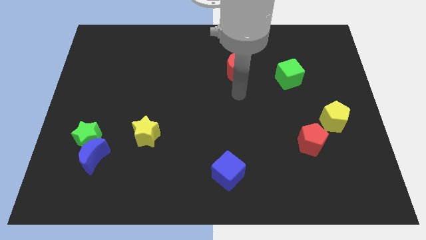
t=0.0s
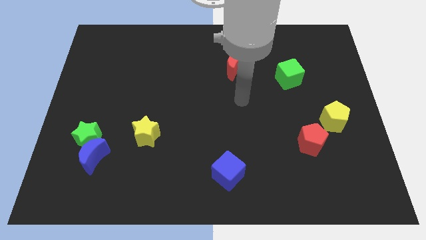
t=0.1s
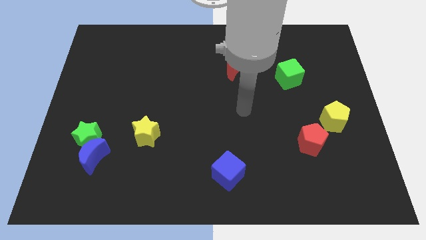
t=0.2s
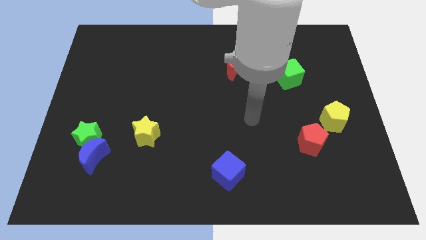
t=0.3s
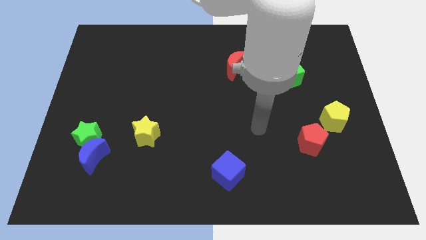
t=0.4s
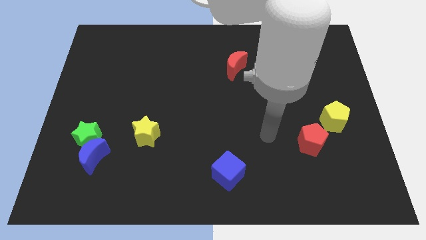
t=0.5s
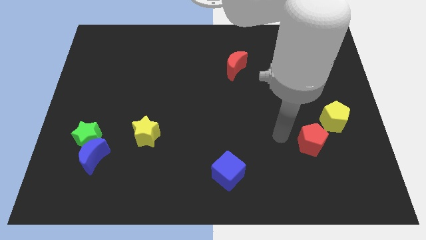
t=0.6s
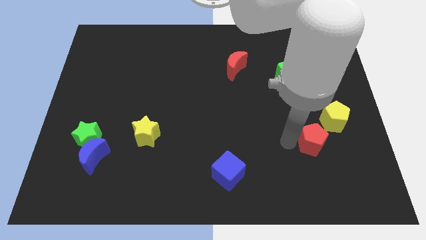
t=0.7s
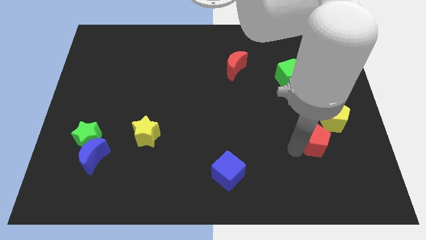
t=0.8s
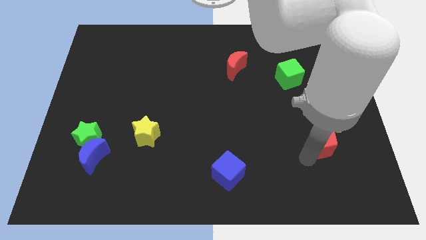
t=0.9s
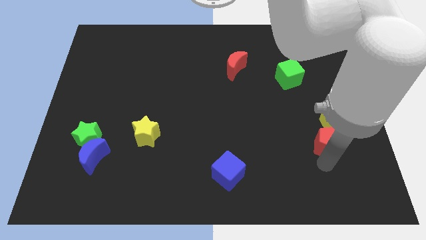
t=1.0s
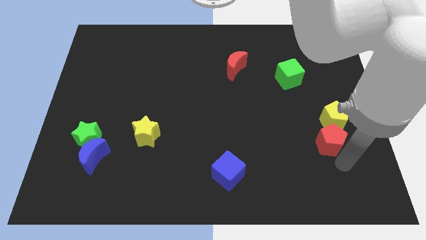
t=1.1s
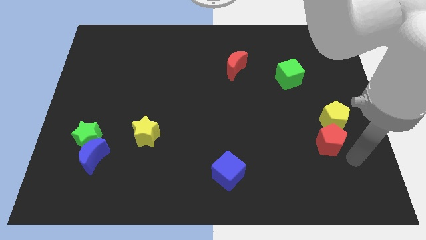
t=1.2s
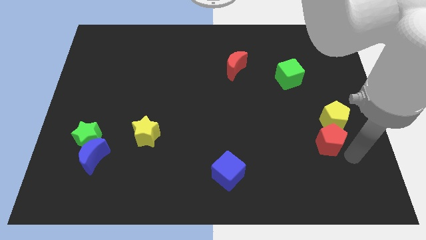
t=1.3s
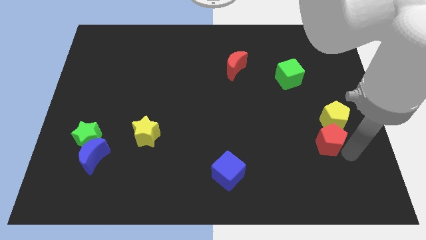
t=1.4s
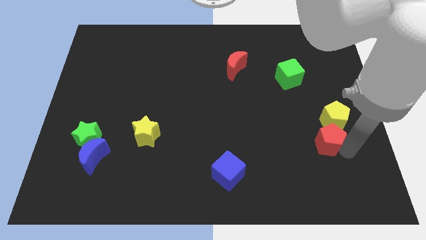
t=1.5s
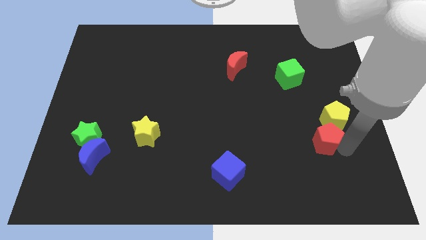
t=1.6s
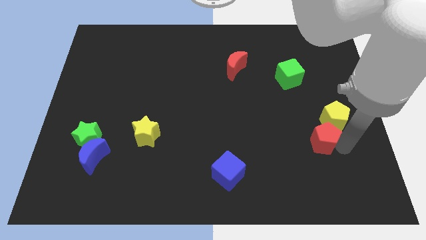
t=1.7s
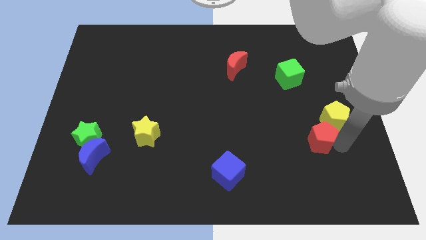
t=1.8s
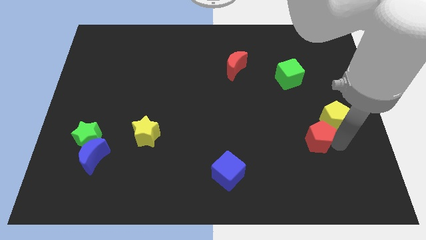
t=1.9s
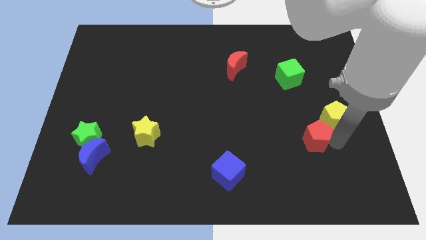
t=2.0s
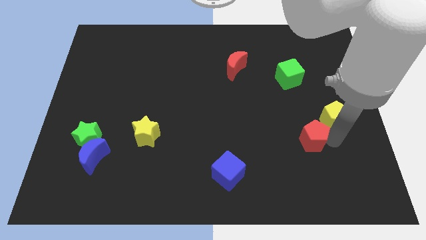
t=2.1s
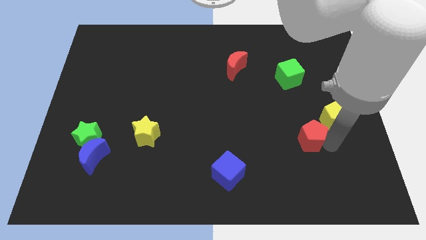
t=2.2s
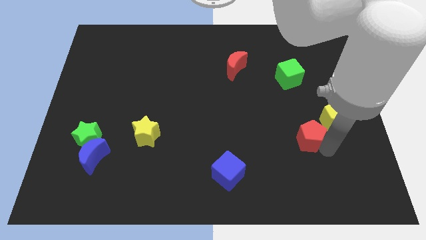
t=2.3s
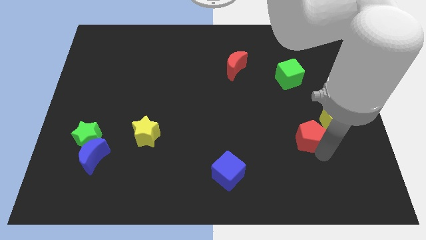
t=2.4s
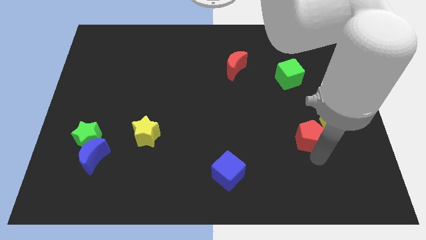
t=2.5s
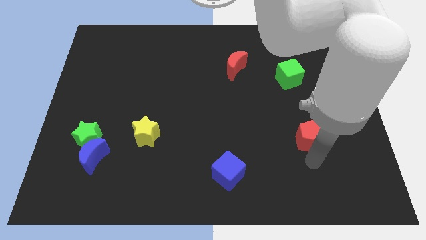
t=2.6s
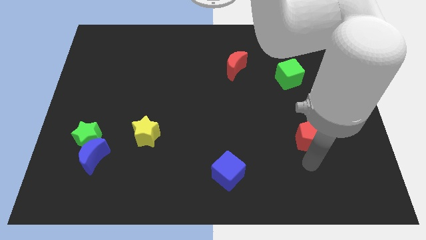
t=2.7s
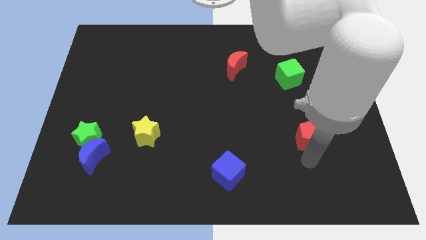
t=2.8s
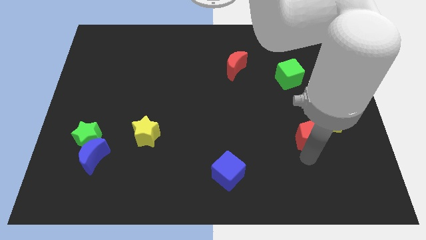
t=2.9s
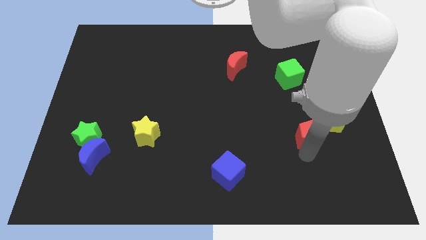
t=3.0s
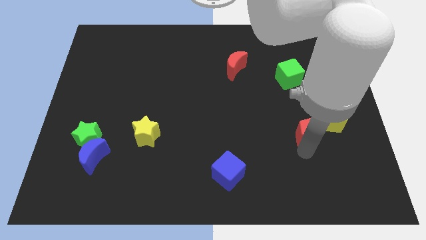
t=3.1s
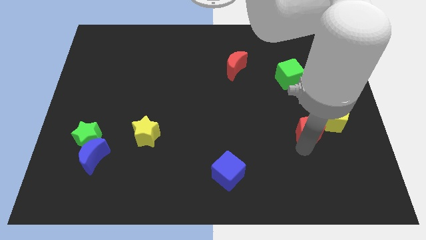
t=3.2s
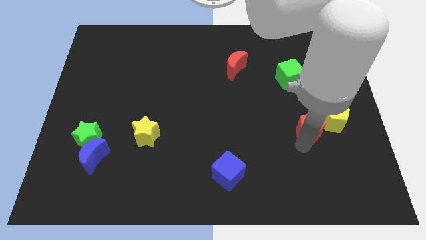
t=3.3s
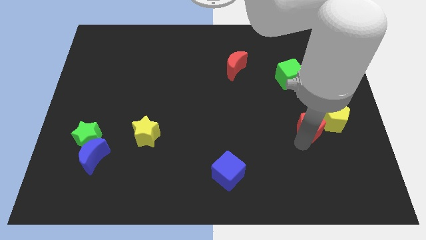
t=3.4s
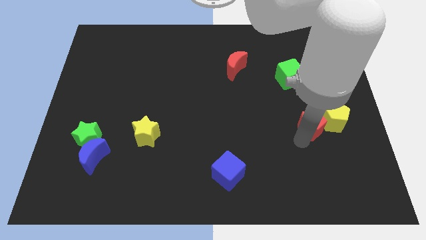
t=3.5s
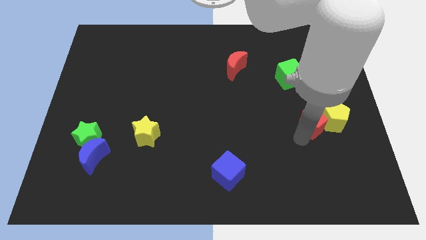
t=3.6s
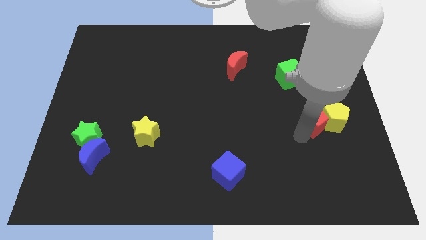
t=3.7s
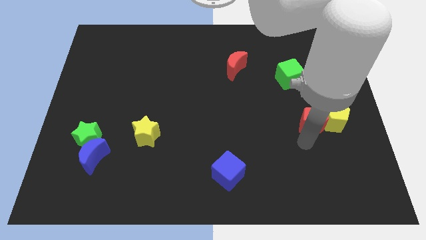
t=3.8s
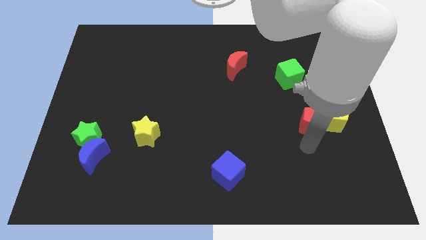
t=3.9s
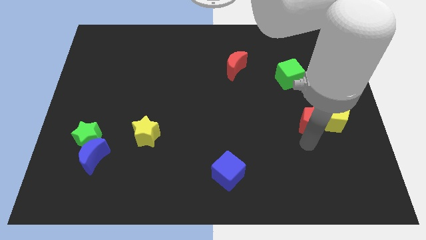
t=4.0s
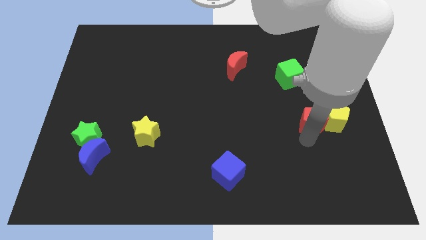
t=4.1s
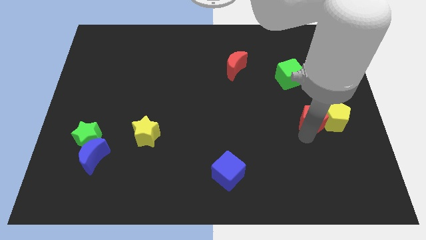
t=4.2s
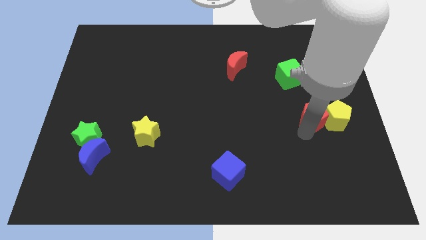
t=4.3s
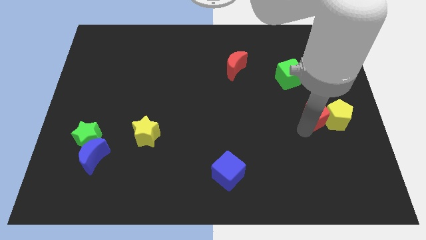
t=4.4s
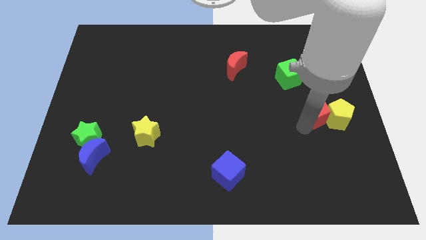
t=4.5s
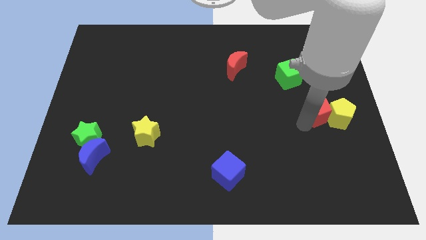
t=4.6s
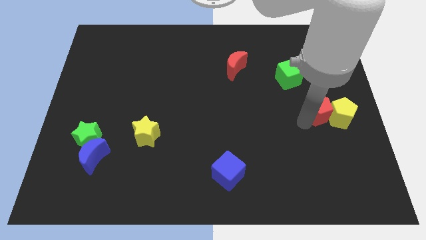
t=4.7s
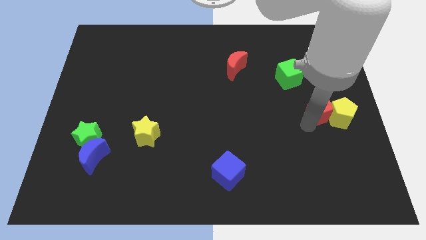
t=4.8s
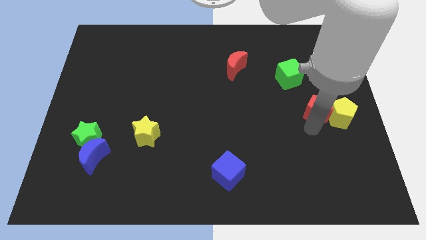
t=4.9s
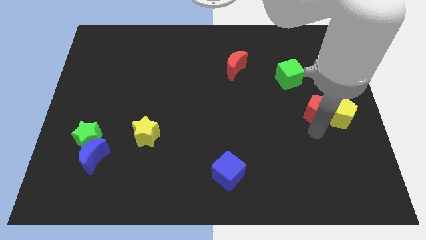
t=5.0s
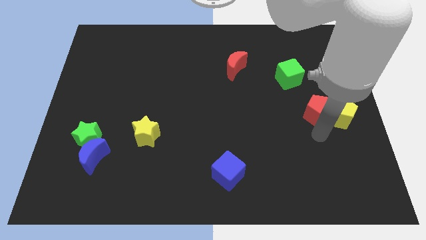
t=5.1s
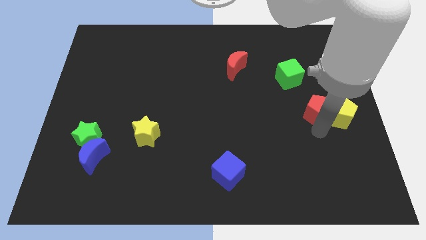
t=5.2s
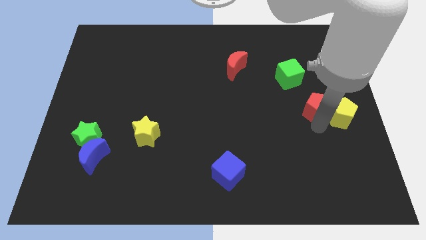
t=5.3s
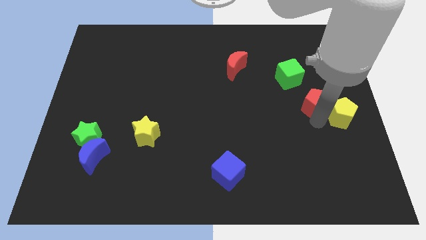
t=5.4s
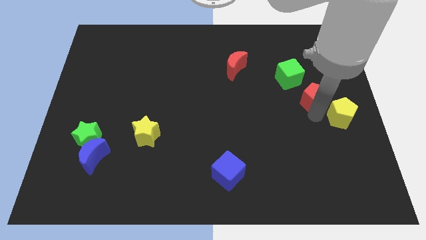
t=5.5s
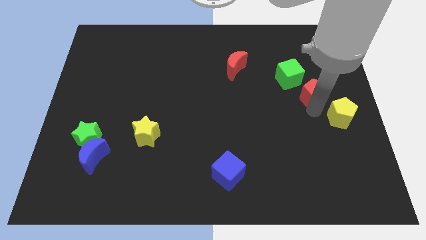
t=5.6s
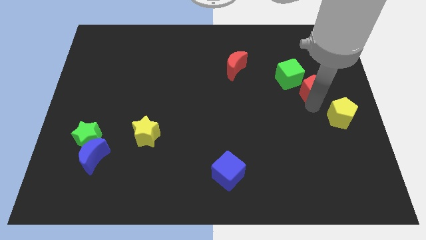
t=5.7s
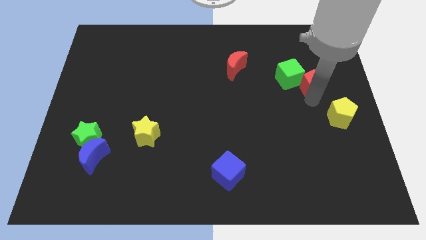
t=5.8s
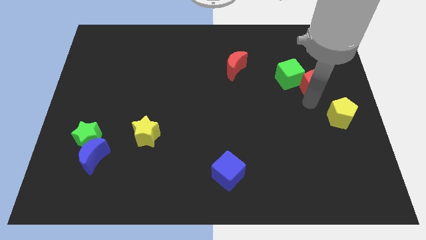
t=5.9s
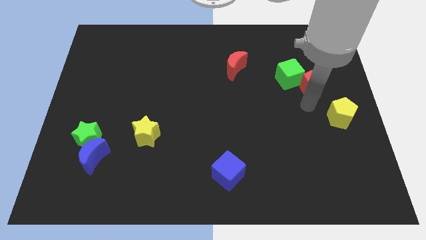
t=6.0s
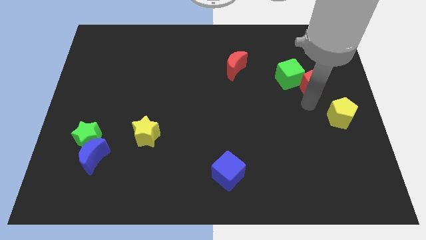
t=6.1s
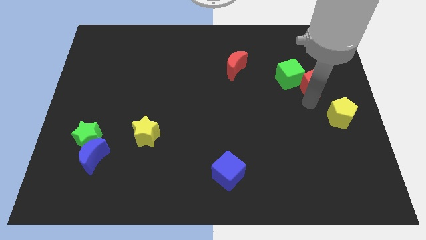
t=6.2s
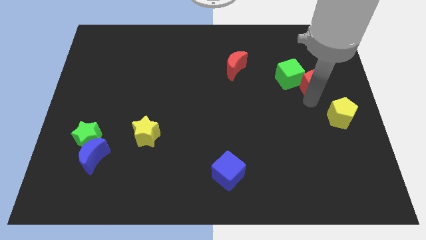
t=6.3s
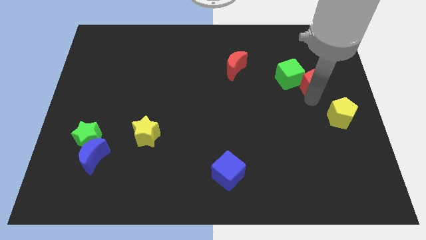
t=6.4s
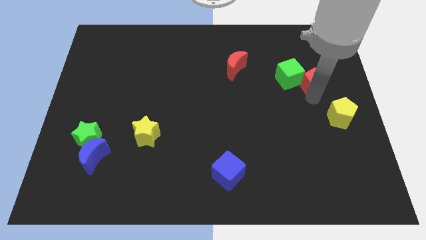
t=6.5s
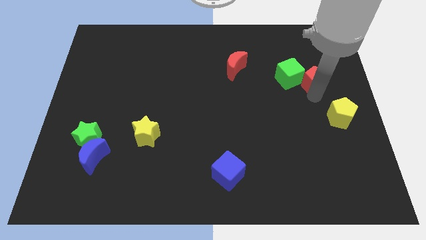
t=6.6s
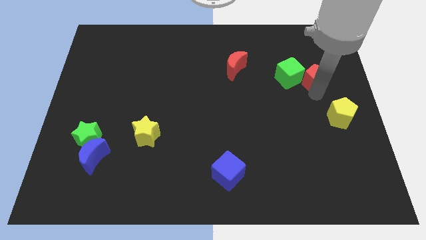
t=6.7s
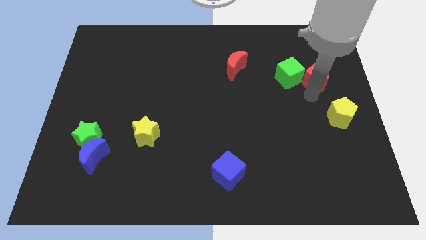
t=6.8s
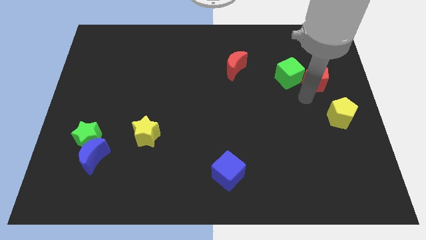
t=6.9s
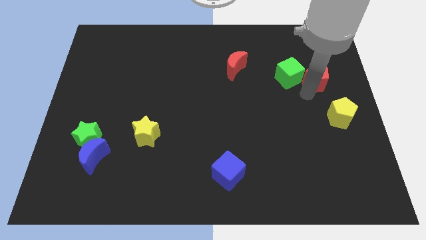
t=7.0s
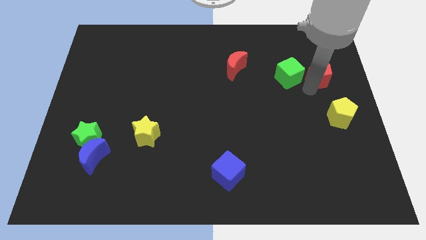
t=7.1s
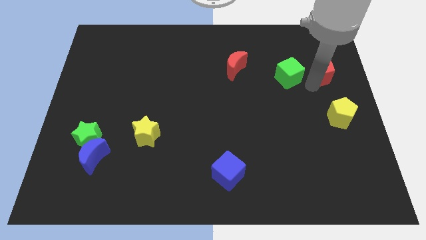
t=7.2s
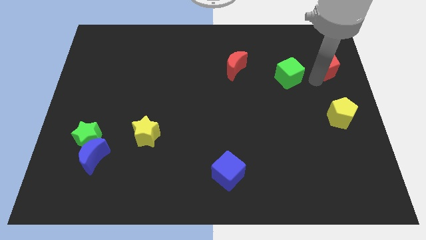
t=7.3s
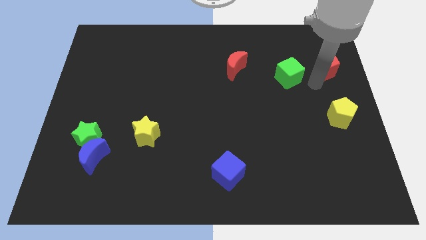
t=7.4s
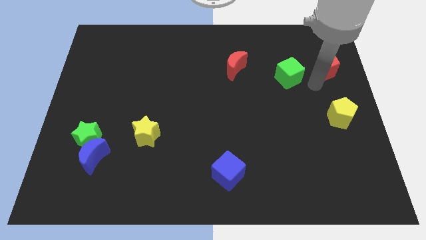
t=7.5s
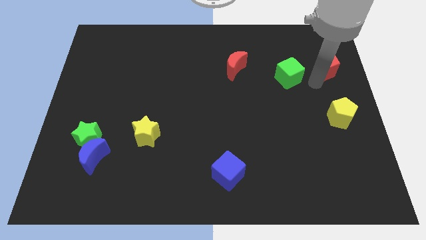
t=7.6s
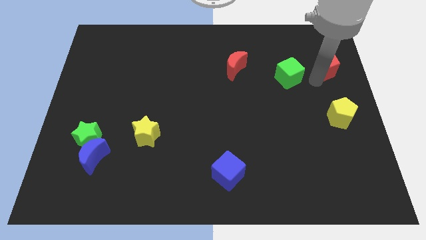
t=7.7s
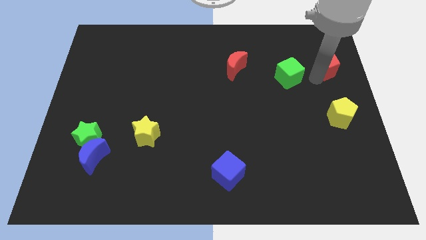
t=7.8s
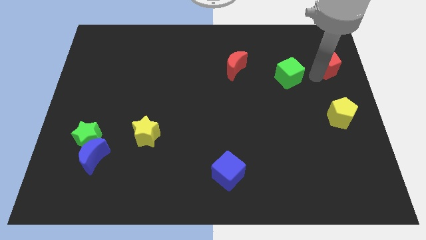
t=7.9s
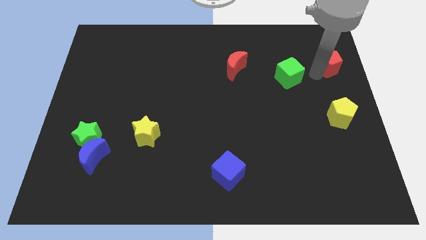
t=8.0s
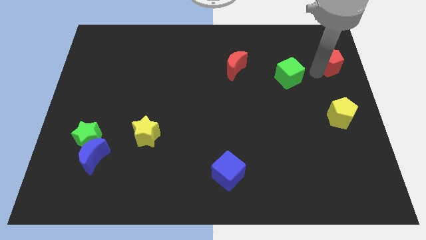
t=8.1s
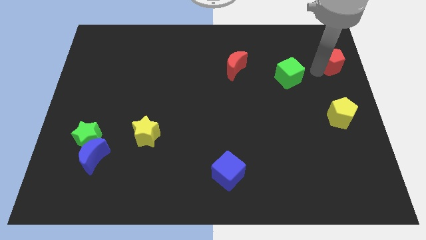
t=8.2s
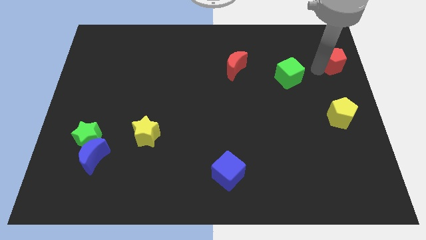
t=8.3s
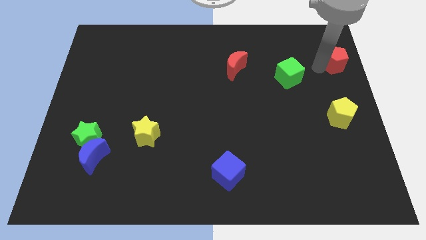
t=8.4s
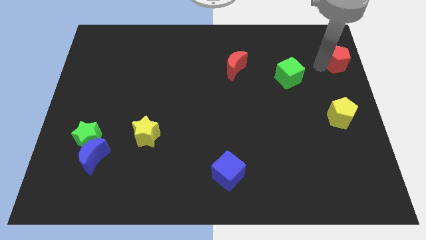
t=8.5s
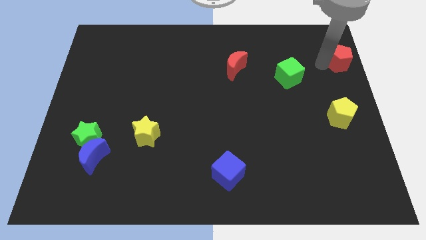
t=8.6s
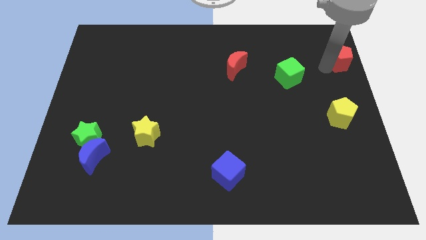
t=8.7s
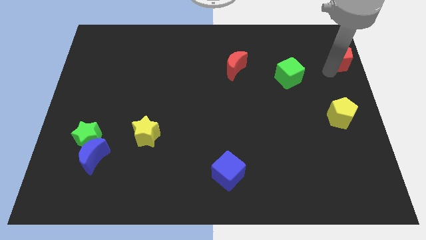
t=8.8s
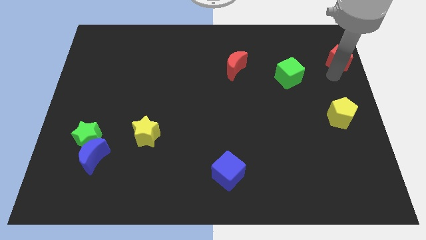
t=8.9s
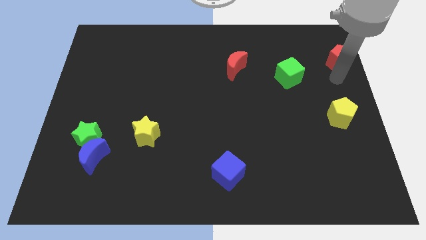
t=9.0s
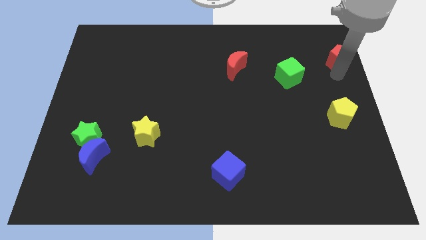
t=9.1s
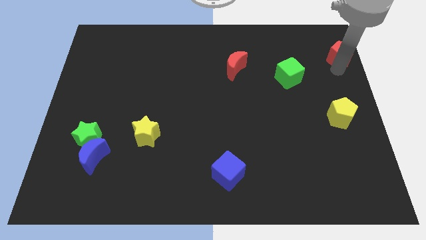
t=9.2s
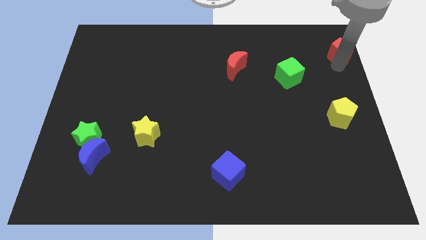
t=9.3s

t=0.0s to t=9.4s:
move the red pentagon to the top right corner
